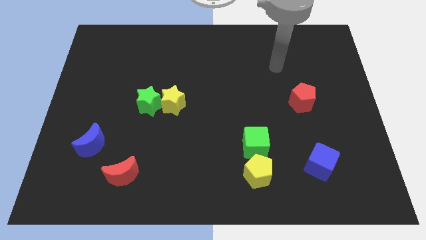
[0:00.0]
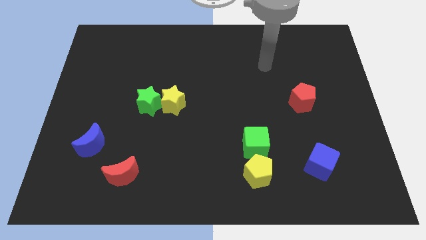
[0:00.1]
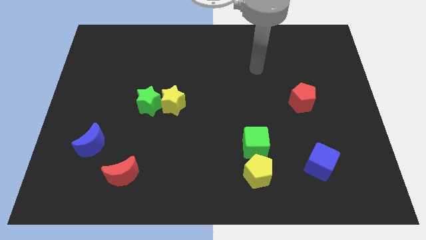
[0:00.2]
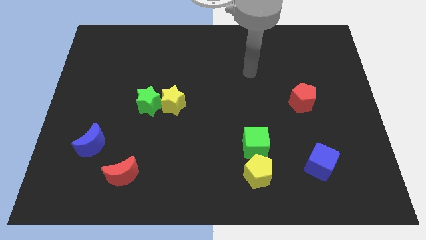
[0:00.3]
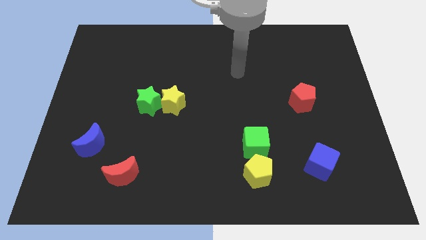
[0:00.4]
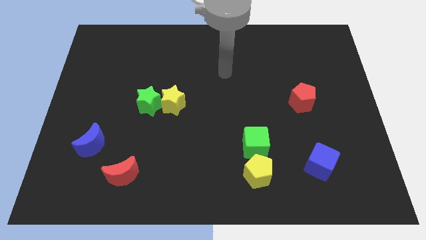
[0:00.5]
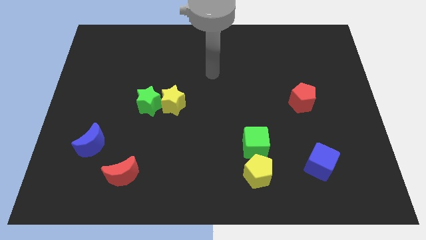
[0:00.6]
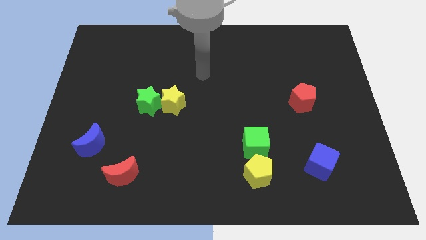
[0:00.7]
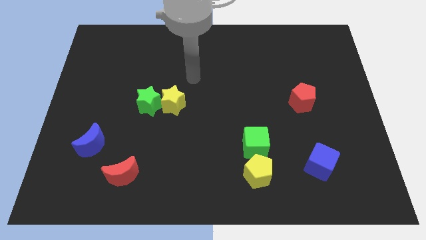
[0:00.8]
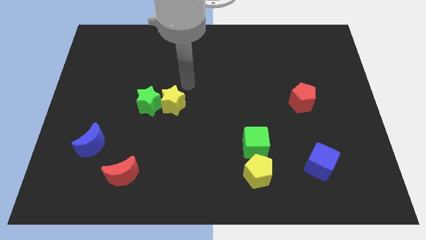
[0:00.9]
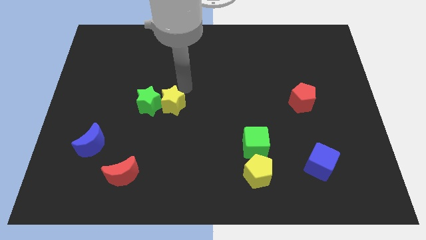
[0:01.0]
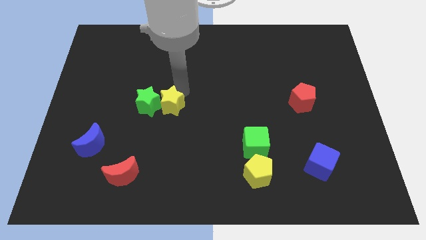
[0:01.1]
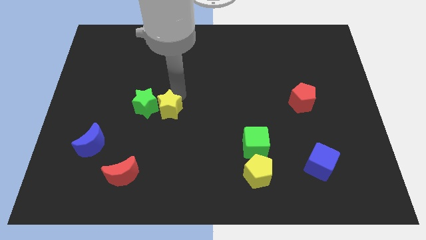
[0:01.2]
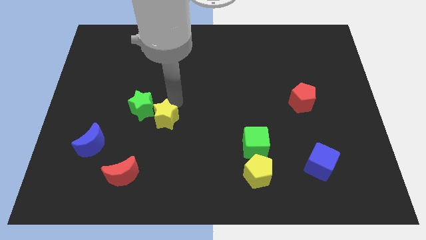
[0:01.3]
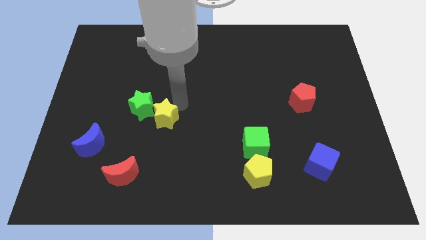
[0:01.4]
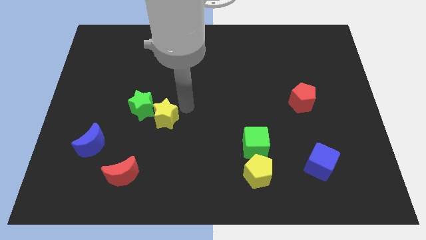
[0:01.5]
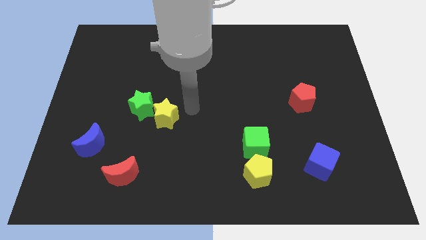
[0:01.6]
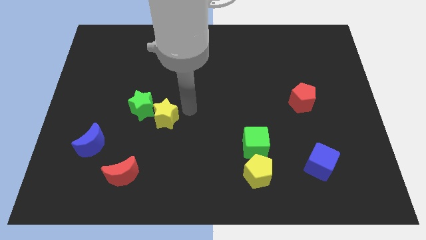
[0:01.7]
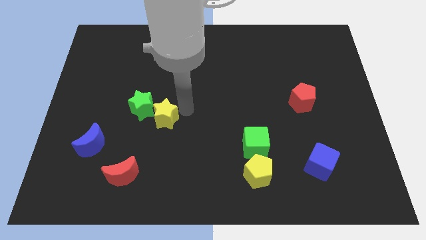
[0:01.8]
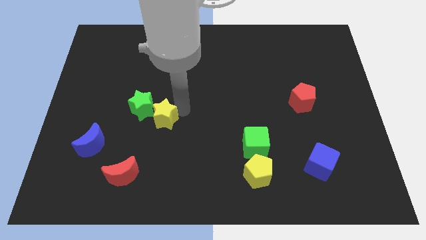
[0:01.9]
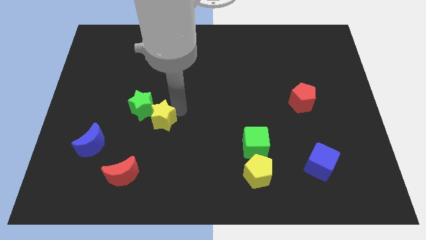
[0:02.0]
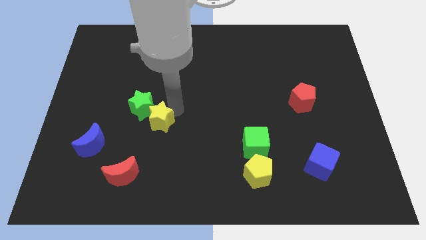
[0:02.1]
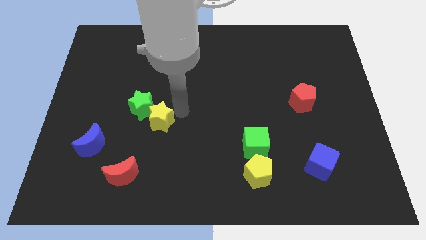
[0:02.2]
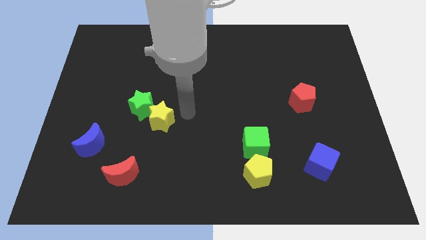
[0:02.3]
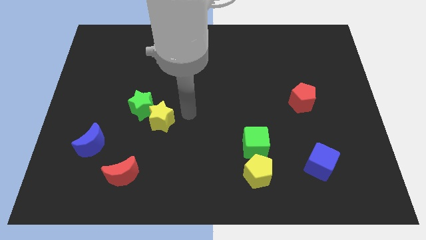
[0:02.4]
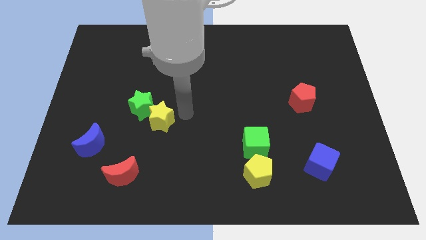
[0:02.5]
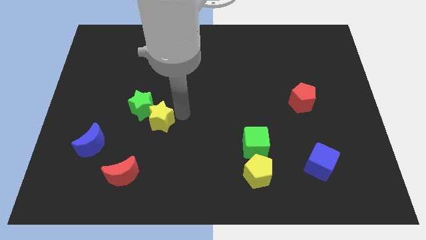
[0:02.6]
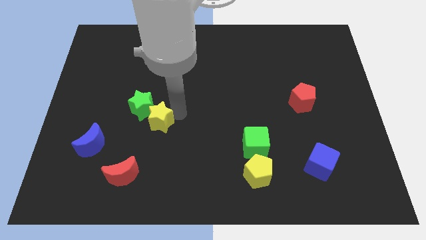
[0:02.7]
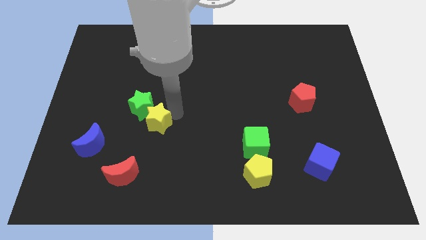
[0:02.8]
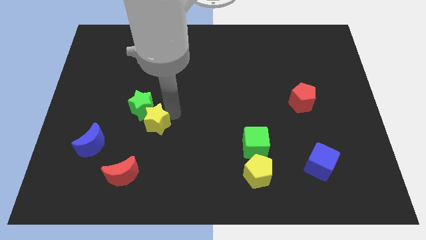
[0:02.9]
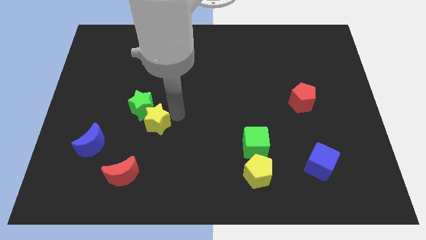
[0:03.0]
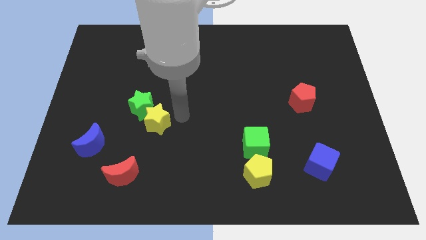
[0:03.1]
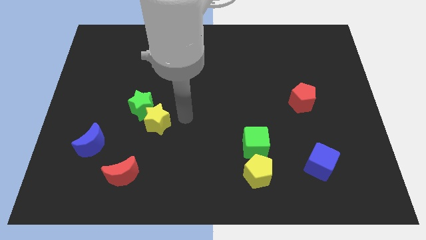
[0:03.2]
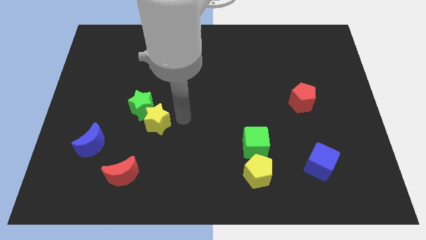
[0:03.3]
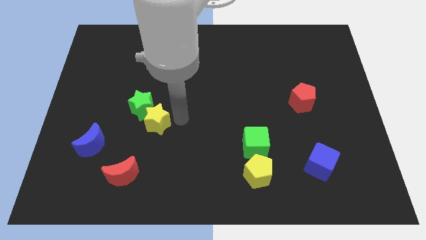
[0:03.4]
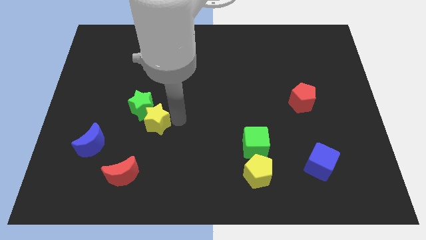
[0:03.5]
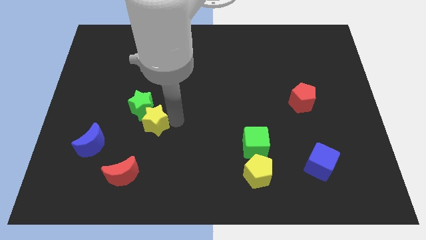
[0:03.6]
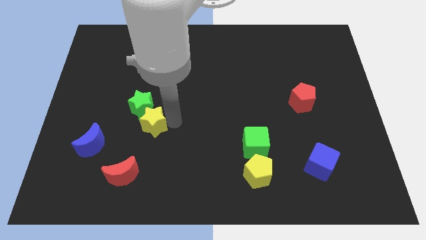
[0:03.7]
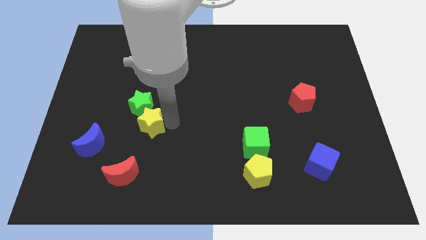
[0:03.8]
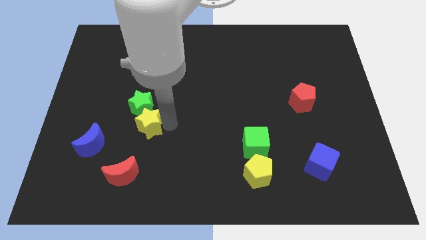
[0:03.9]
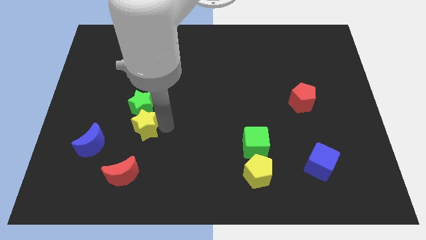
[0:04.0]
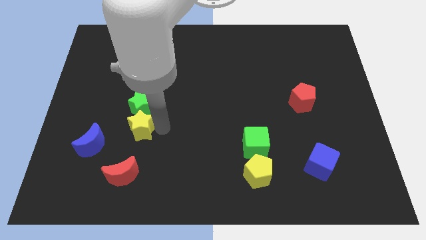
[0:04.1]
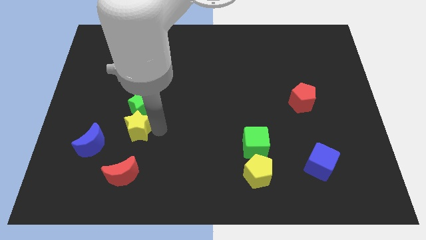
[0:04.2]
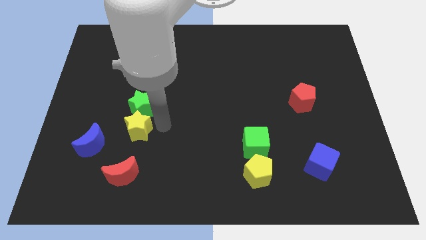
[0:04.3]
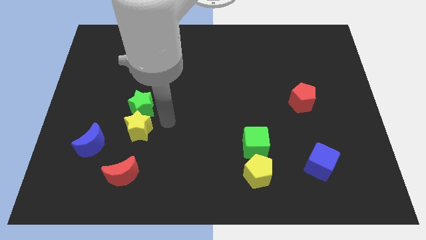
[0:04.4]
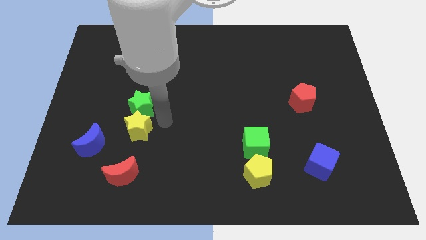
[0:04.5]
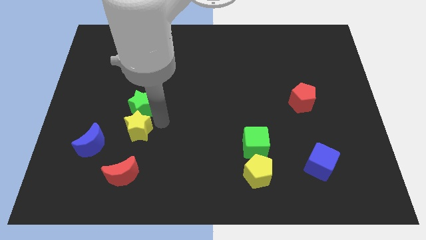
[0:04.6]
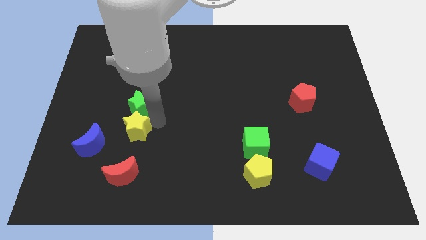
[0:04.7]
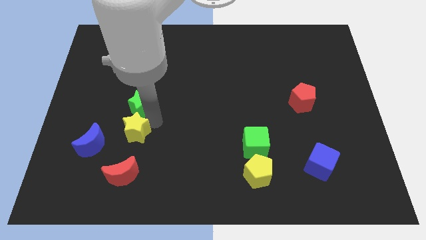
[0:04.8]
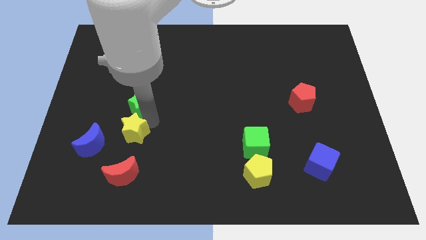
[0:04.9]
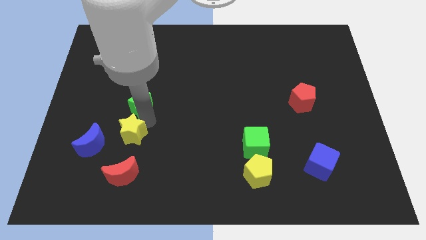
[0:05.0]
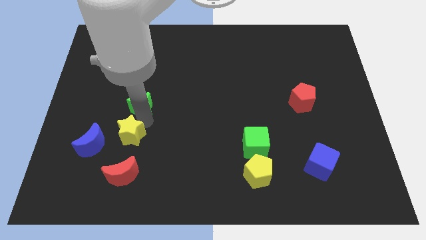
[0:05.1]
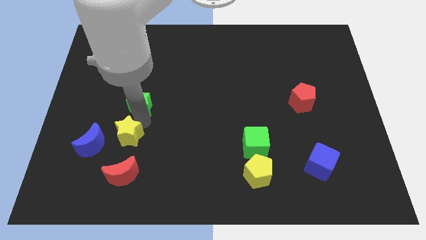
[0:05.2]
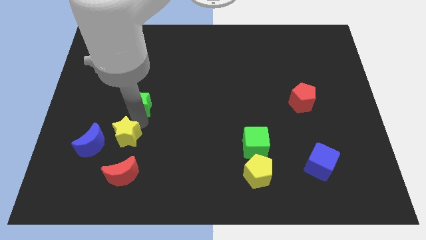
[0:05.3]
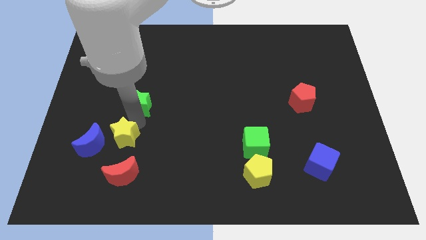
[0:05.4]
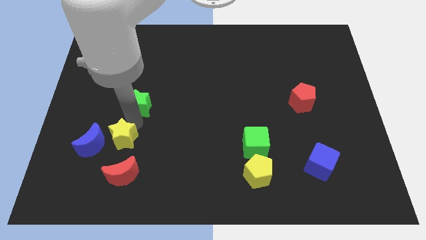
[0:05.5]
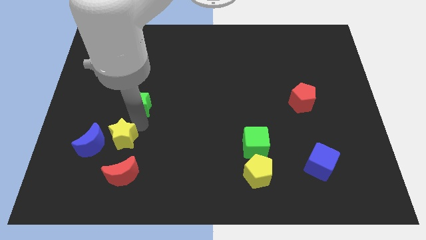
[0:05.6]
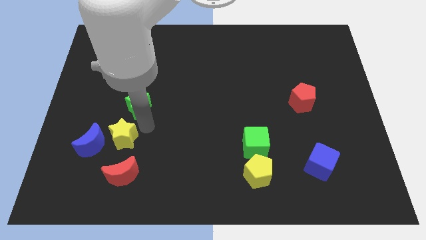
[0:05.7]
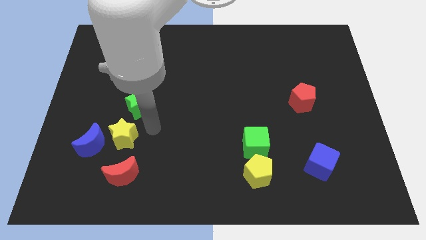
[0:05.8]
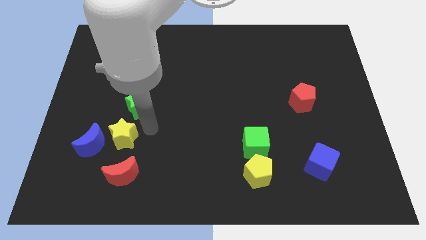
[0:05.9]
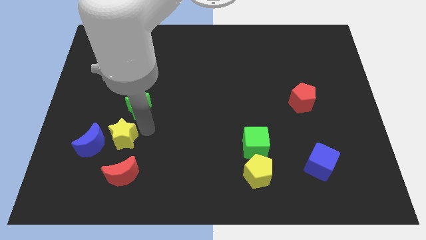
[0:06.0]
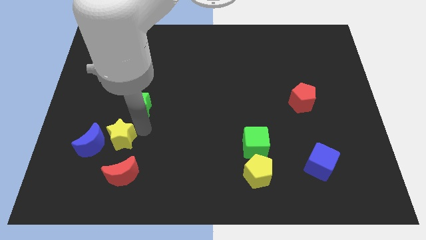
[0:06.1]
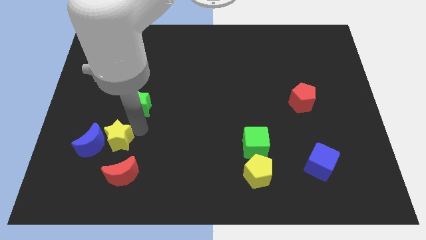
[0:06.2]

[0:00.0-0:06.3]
slide the yellow star close to the blue moon

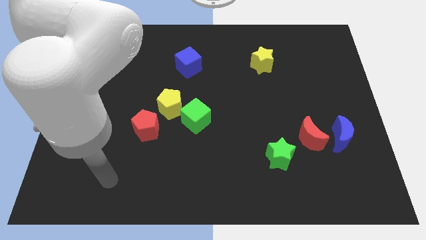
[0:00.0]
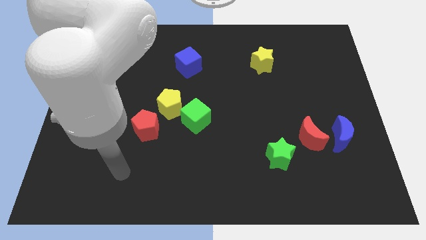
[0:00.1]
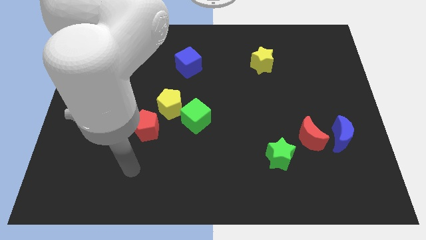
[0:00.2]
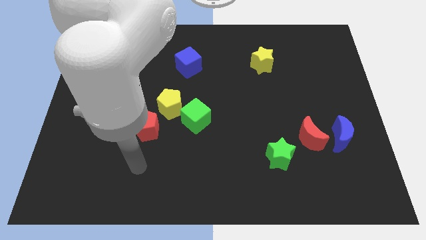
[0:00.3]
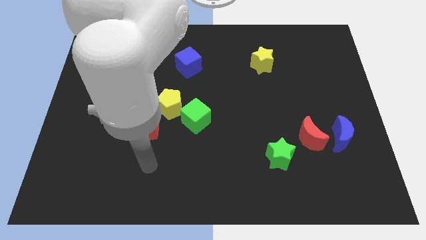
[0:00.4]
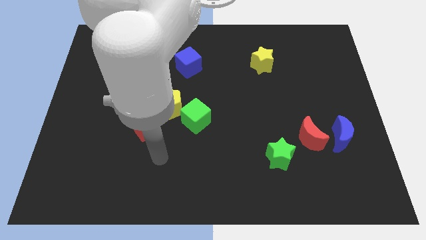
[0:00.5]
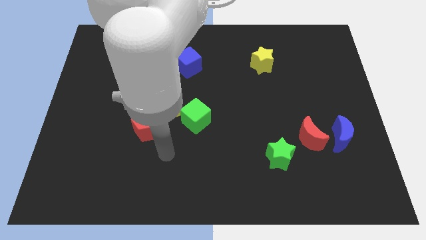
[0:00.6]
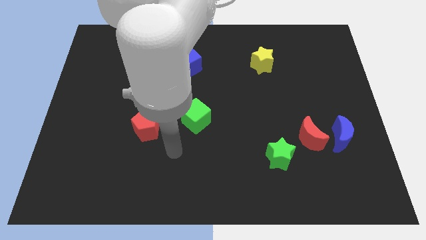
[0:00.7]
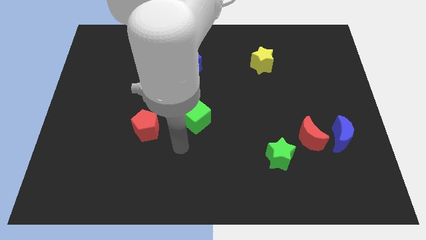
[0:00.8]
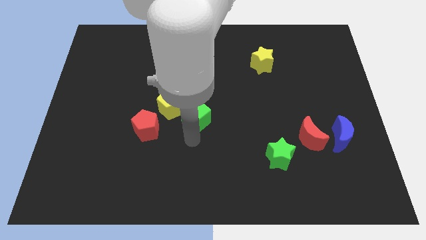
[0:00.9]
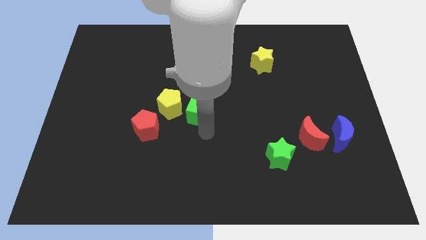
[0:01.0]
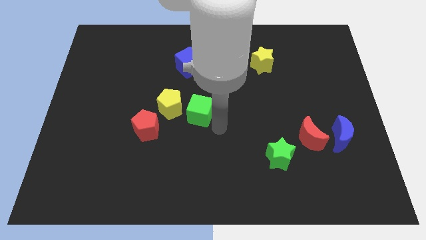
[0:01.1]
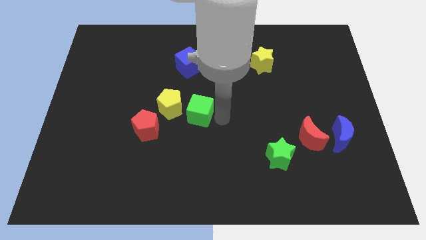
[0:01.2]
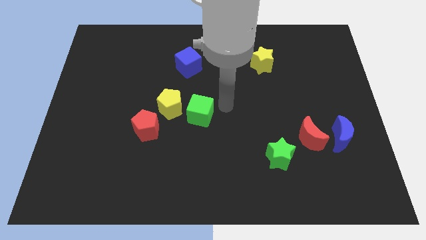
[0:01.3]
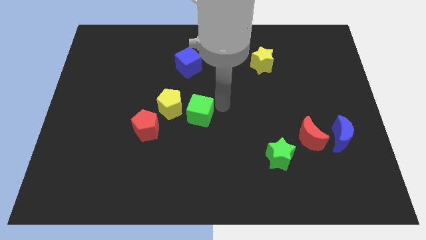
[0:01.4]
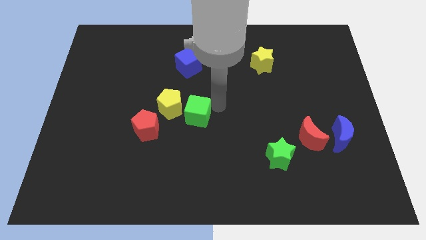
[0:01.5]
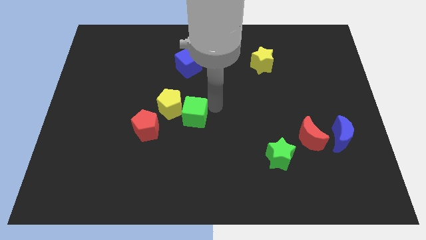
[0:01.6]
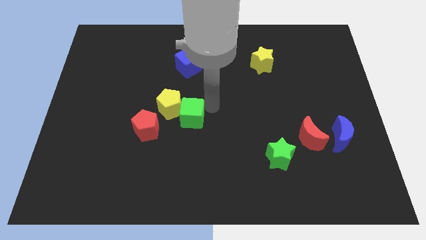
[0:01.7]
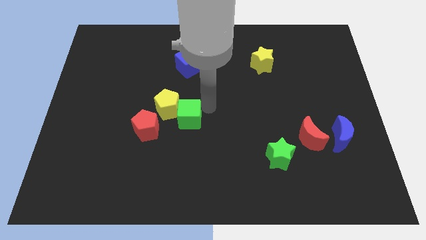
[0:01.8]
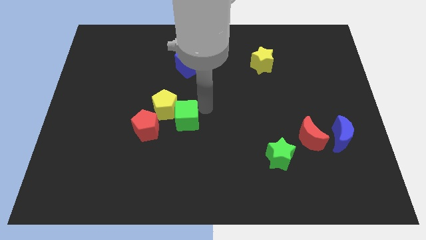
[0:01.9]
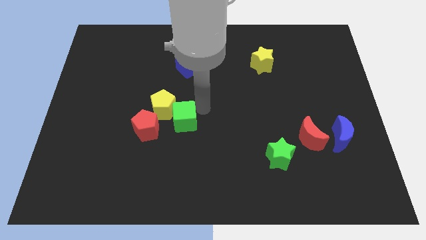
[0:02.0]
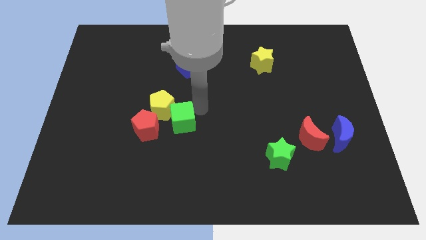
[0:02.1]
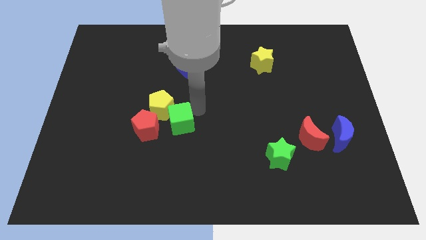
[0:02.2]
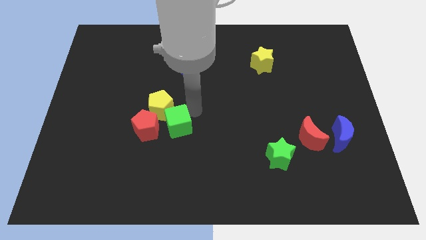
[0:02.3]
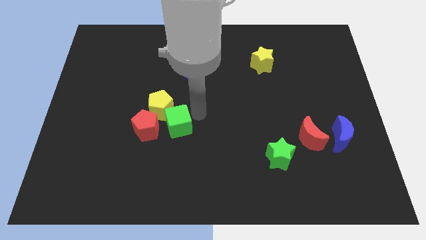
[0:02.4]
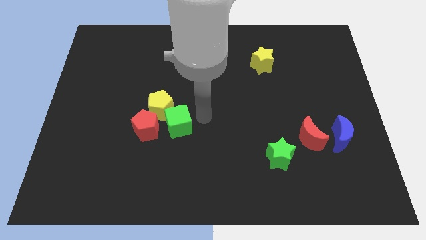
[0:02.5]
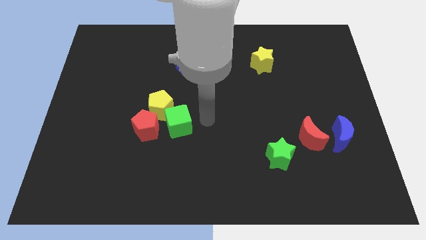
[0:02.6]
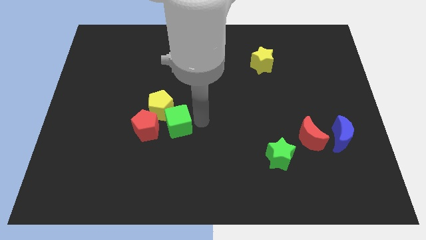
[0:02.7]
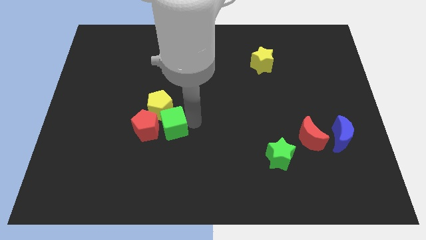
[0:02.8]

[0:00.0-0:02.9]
put the green cube towards the red pentagon
